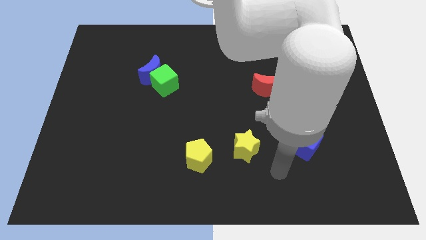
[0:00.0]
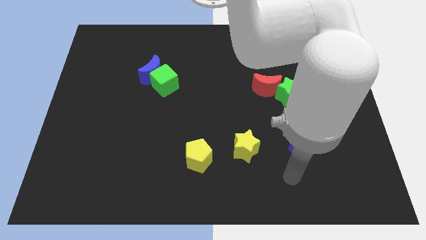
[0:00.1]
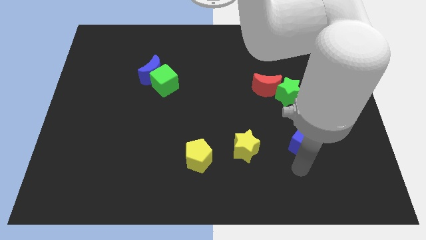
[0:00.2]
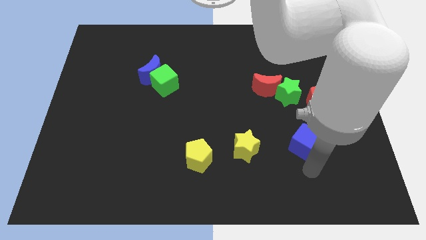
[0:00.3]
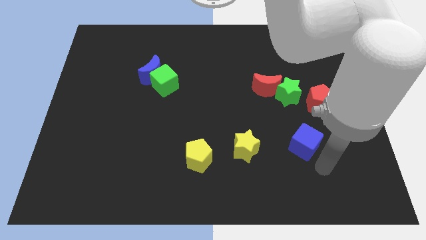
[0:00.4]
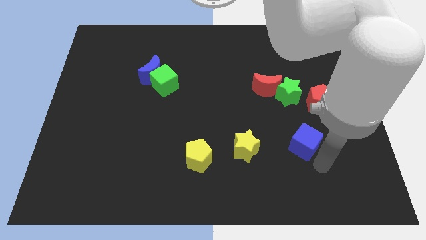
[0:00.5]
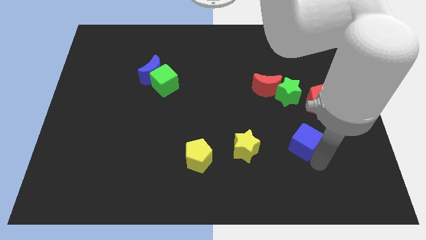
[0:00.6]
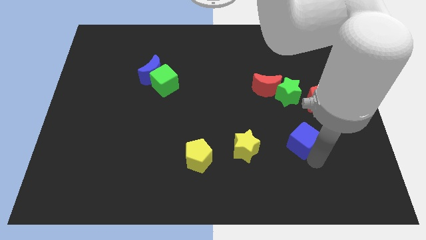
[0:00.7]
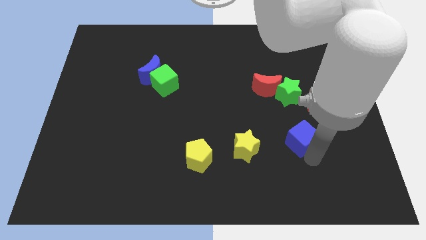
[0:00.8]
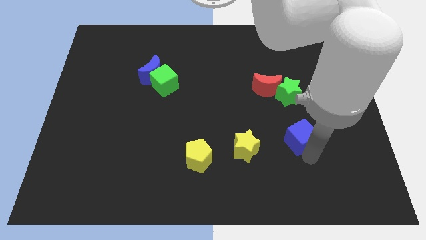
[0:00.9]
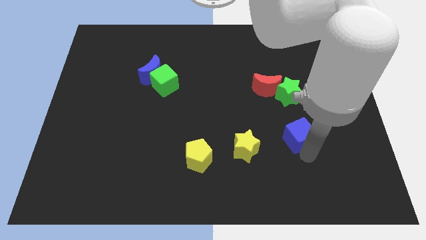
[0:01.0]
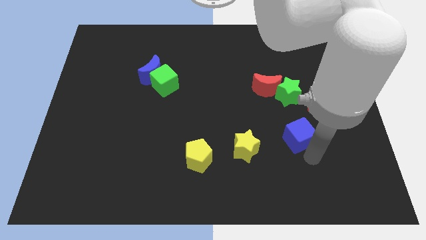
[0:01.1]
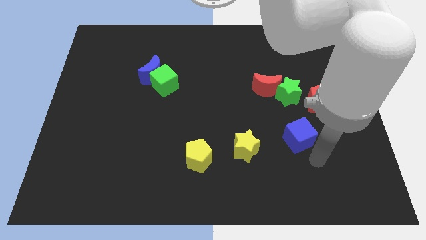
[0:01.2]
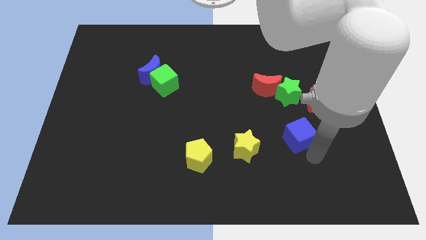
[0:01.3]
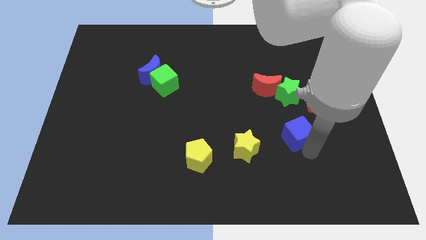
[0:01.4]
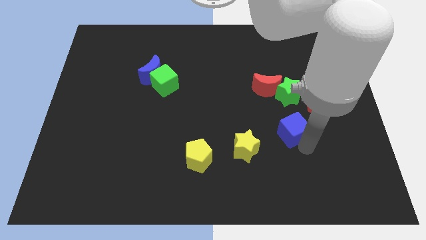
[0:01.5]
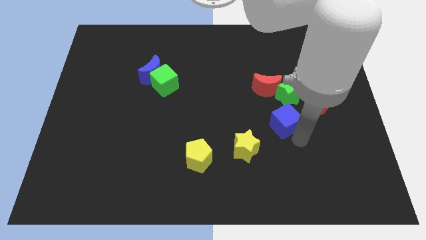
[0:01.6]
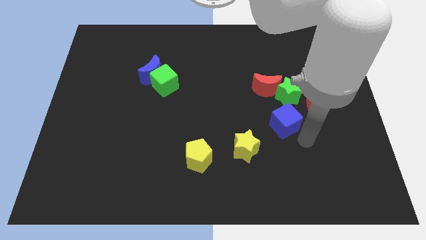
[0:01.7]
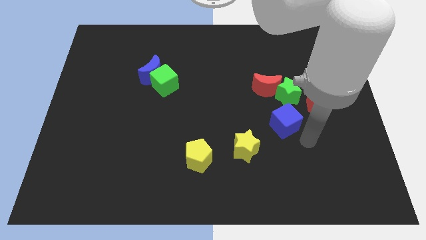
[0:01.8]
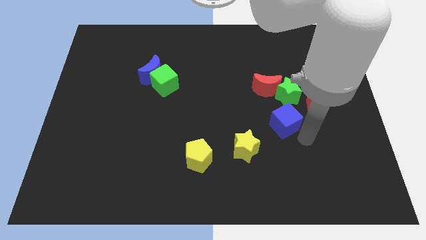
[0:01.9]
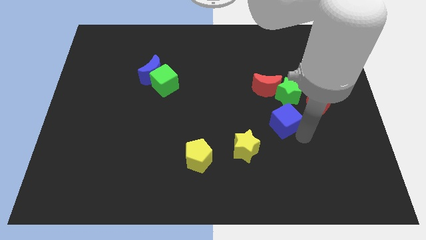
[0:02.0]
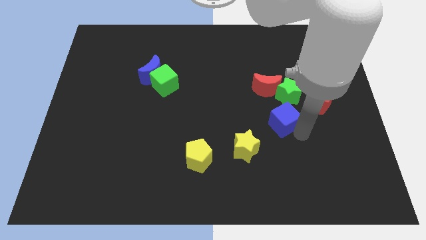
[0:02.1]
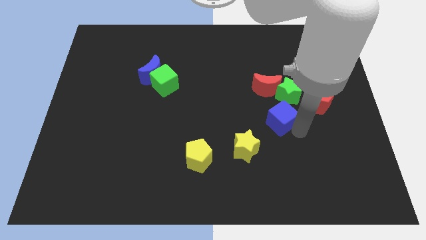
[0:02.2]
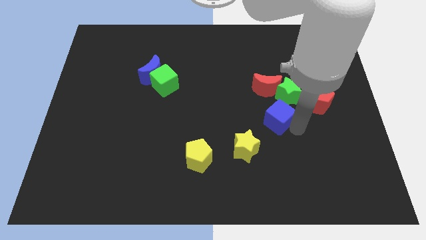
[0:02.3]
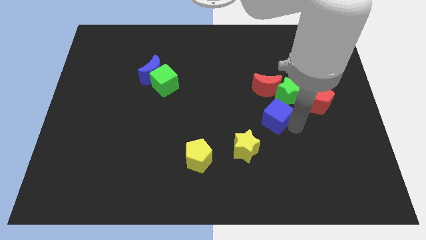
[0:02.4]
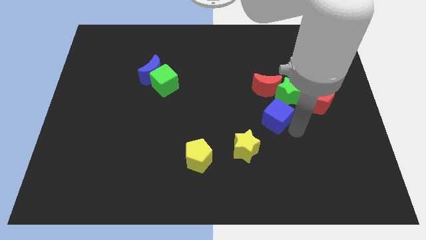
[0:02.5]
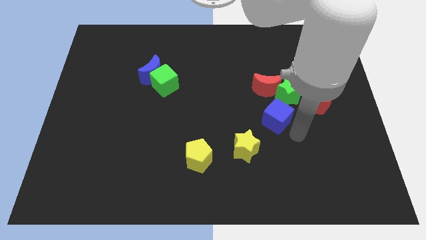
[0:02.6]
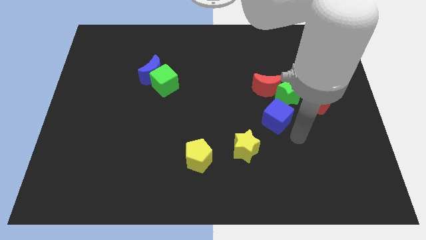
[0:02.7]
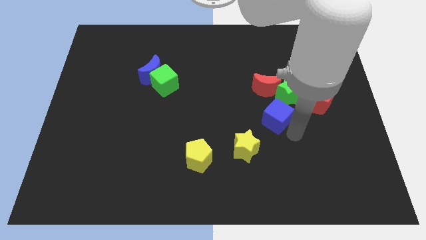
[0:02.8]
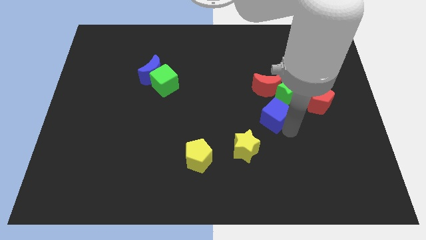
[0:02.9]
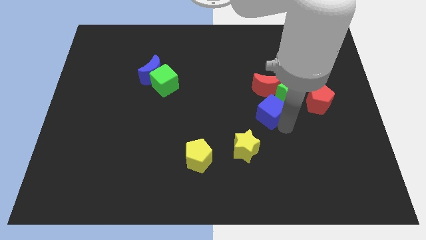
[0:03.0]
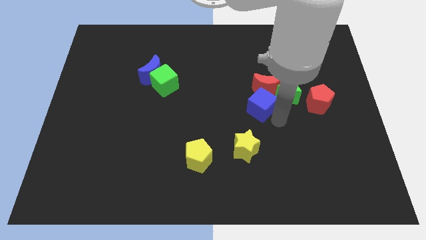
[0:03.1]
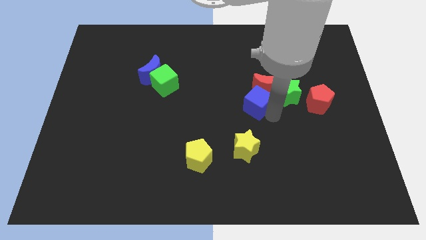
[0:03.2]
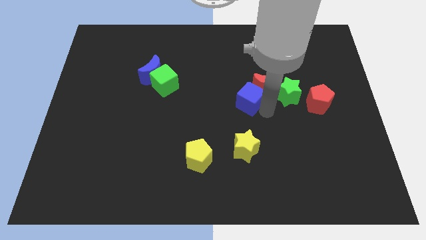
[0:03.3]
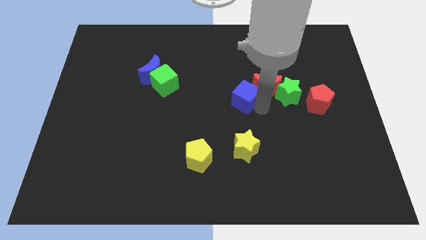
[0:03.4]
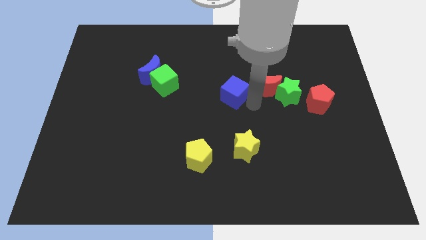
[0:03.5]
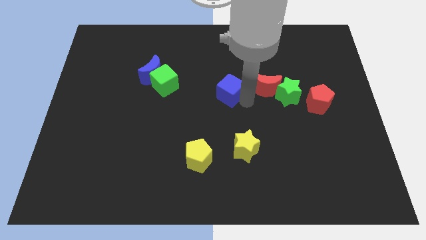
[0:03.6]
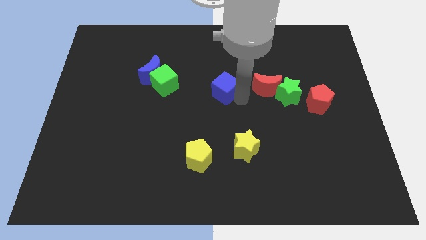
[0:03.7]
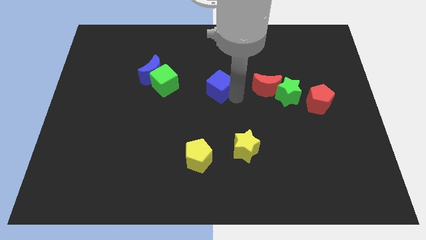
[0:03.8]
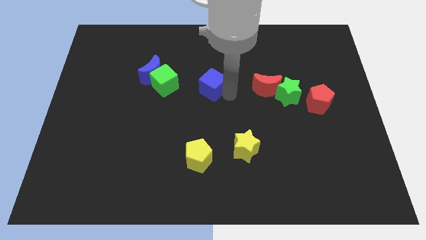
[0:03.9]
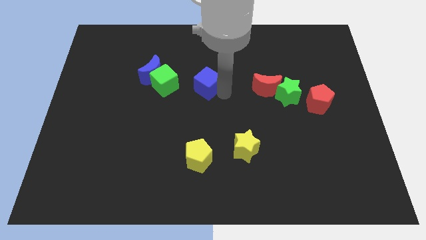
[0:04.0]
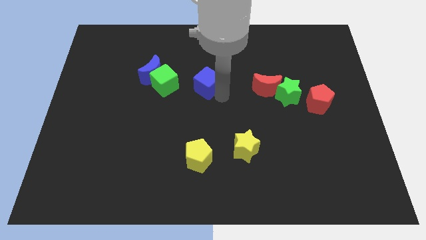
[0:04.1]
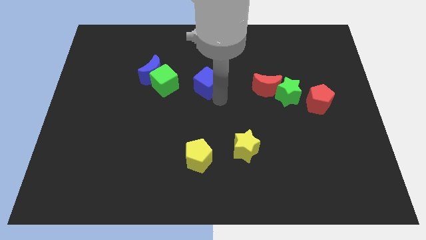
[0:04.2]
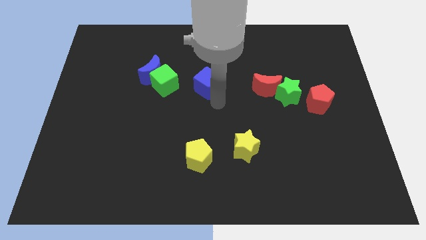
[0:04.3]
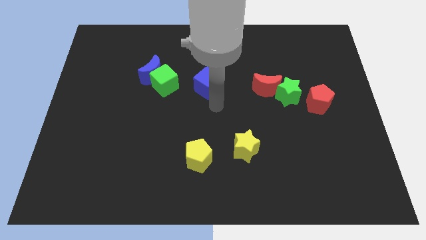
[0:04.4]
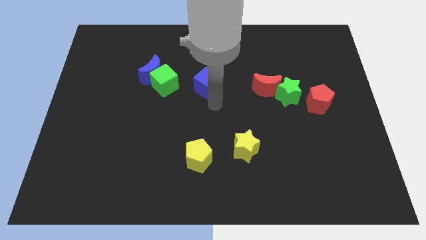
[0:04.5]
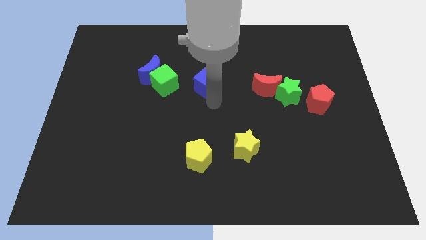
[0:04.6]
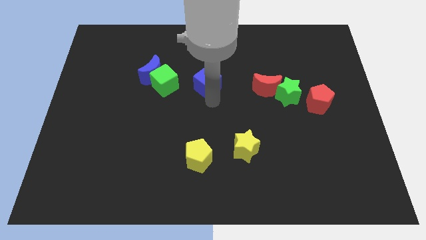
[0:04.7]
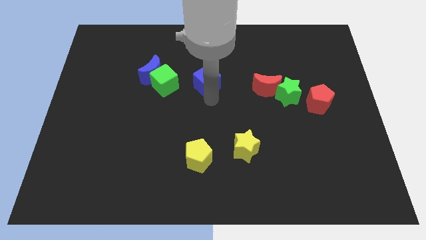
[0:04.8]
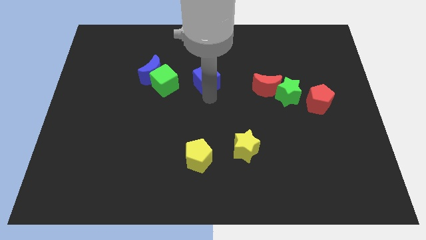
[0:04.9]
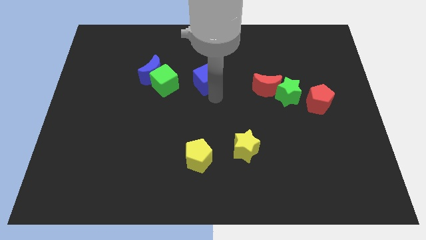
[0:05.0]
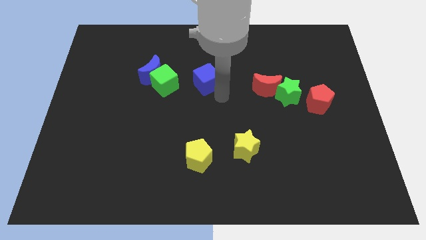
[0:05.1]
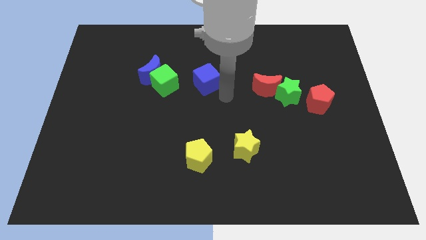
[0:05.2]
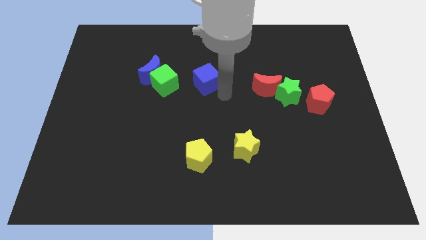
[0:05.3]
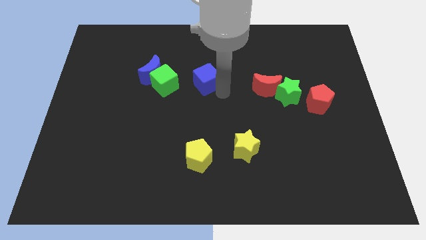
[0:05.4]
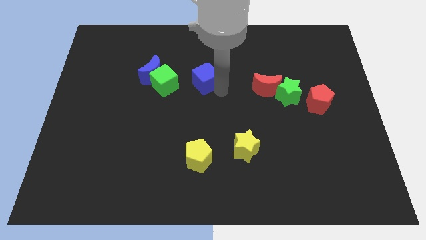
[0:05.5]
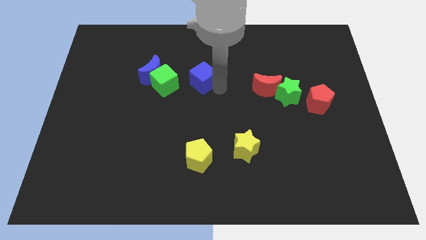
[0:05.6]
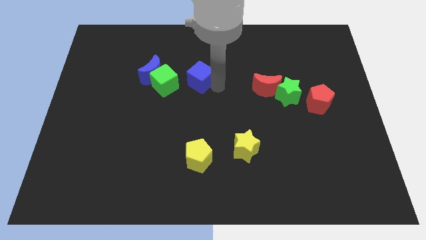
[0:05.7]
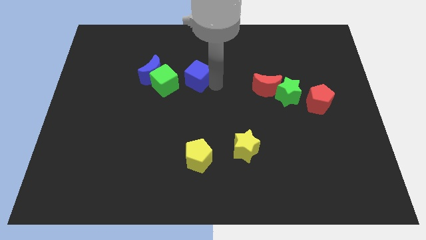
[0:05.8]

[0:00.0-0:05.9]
push the blue cube to the top right of the green cube
